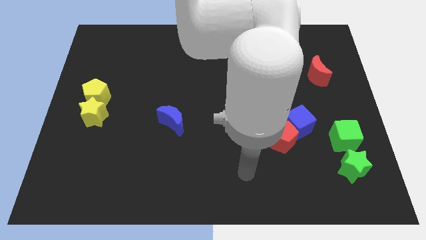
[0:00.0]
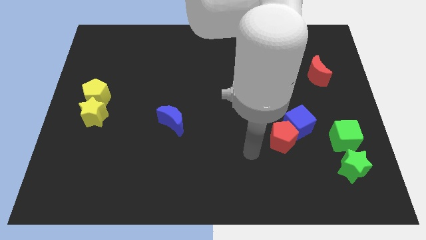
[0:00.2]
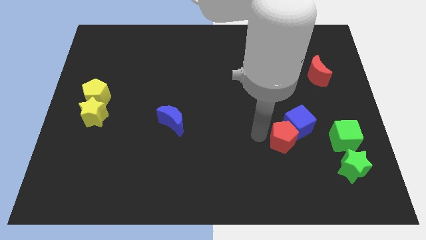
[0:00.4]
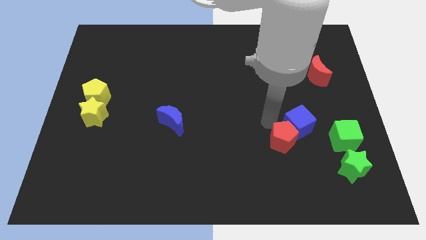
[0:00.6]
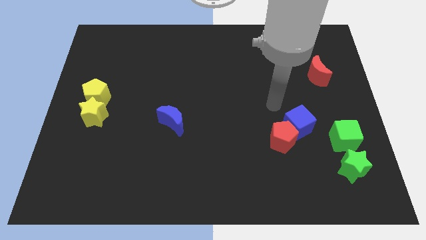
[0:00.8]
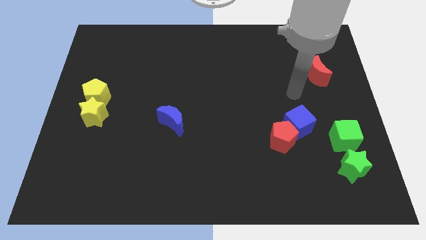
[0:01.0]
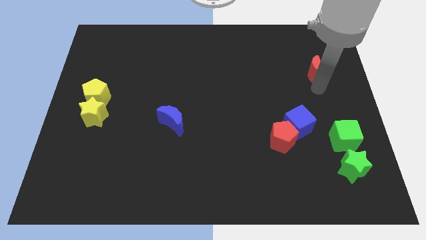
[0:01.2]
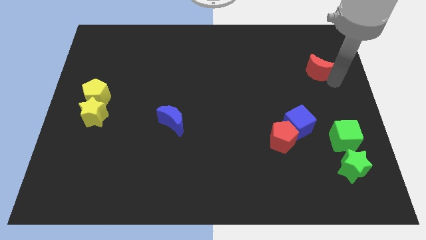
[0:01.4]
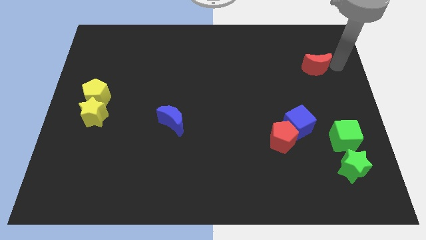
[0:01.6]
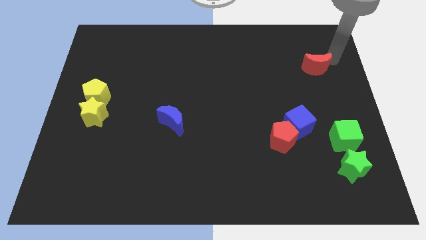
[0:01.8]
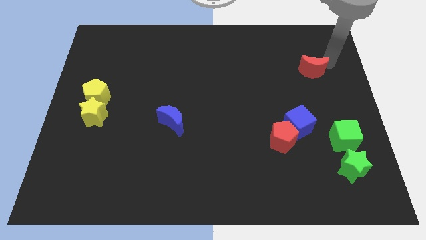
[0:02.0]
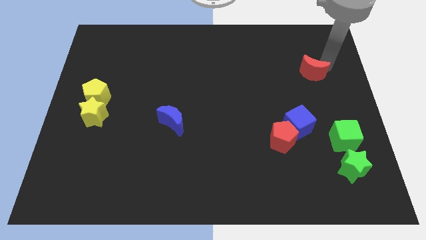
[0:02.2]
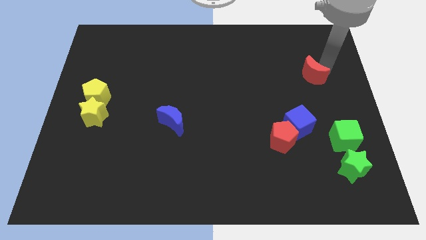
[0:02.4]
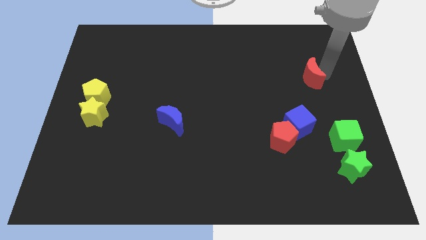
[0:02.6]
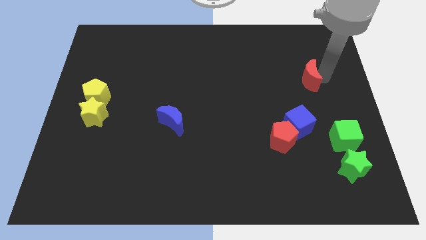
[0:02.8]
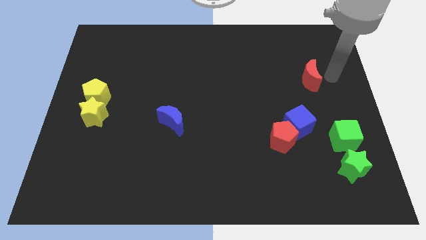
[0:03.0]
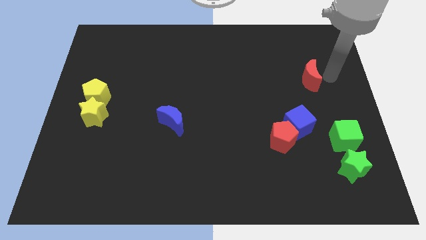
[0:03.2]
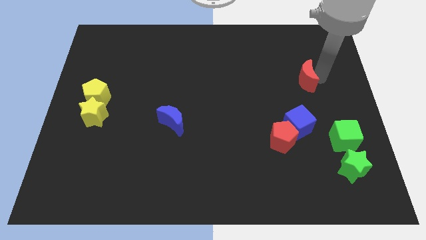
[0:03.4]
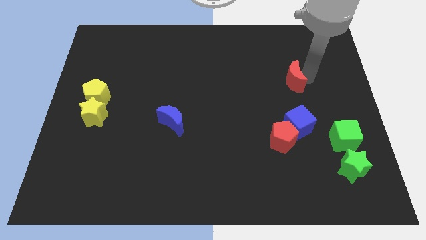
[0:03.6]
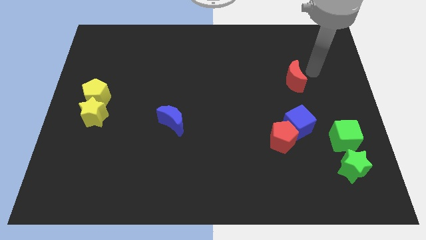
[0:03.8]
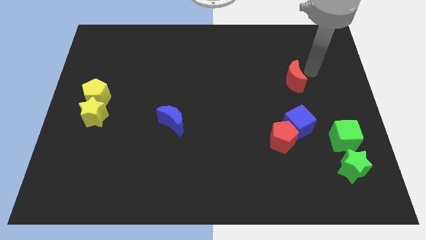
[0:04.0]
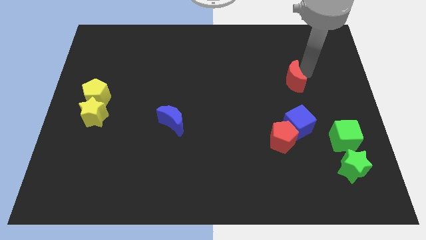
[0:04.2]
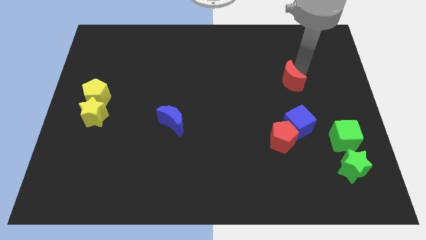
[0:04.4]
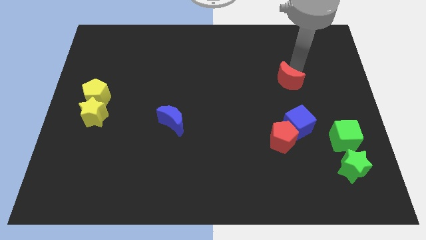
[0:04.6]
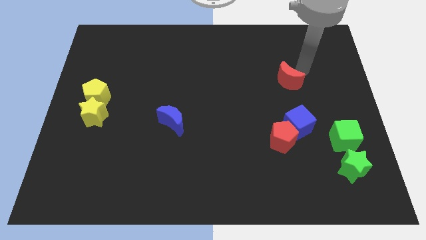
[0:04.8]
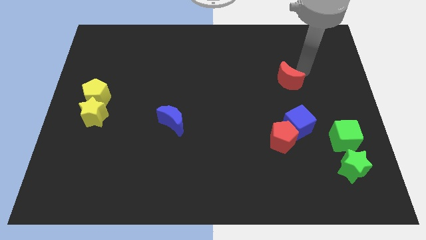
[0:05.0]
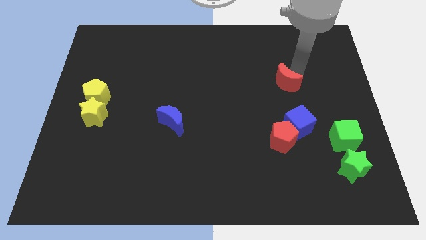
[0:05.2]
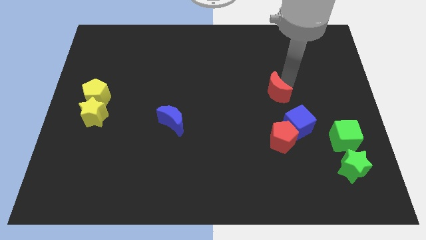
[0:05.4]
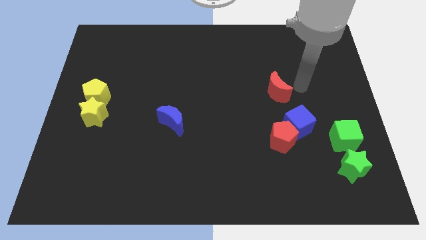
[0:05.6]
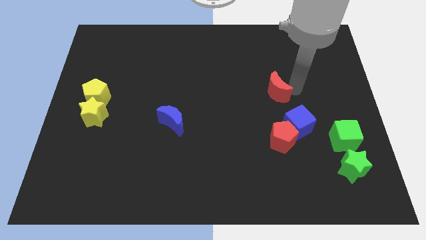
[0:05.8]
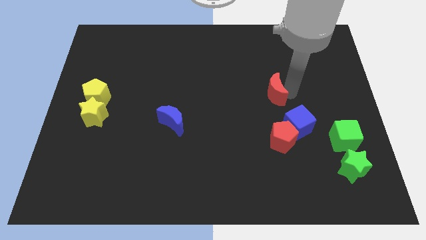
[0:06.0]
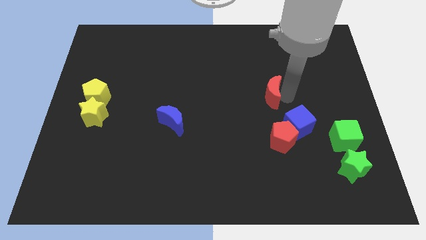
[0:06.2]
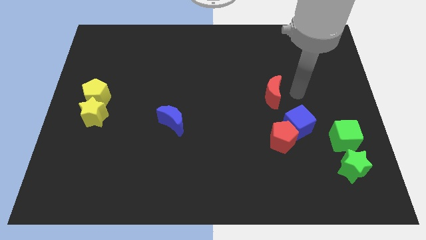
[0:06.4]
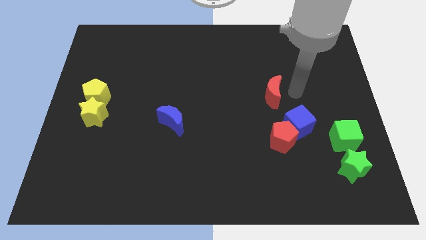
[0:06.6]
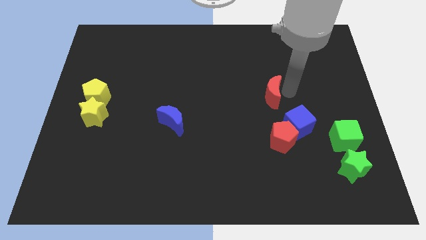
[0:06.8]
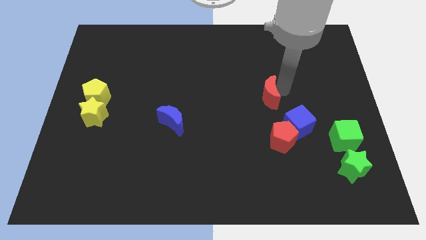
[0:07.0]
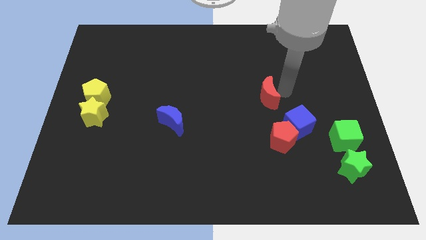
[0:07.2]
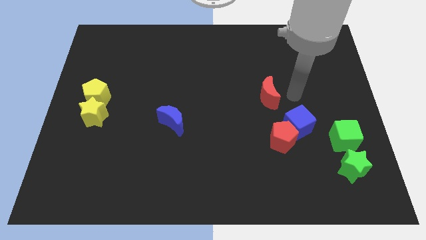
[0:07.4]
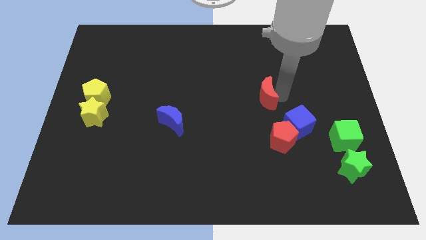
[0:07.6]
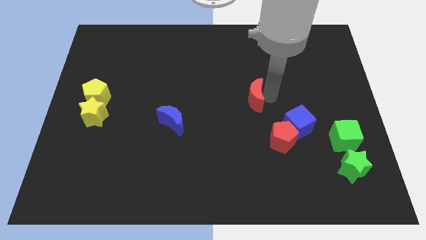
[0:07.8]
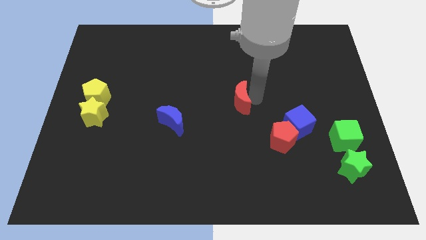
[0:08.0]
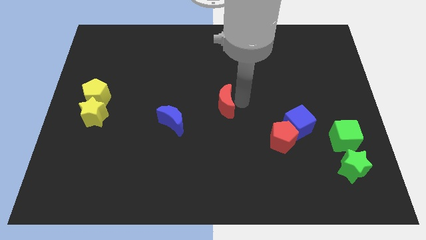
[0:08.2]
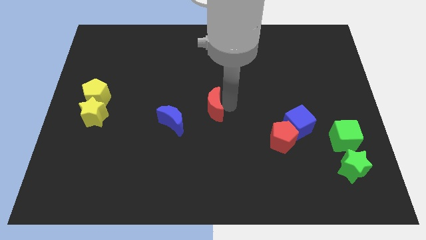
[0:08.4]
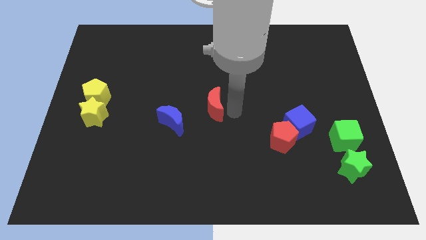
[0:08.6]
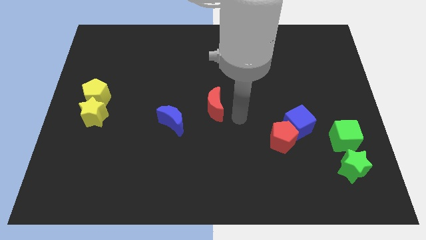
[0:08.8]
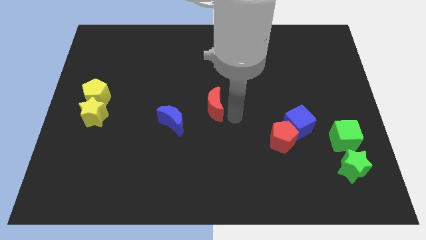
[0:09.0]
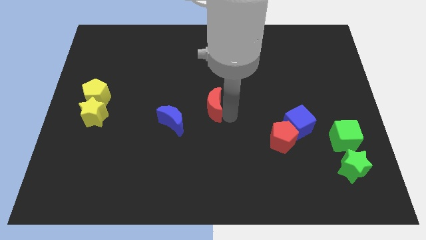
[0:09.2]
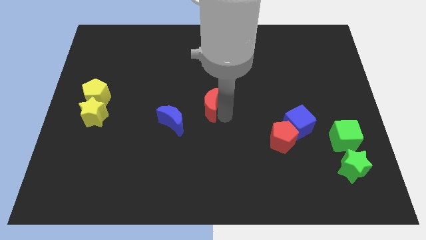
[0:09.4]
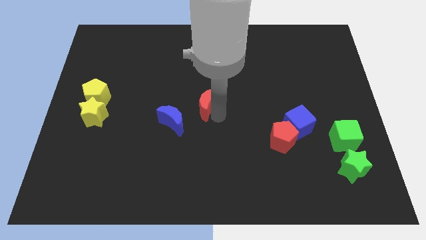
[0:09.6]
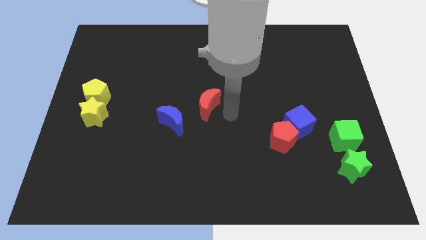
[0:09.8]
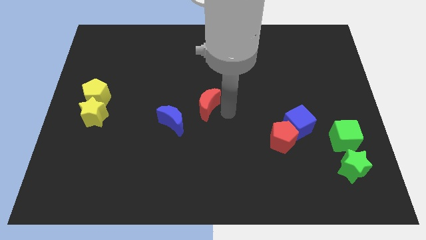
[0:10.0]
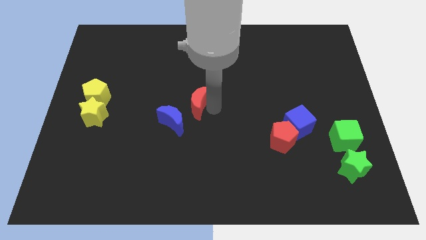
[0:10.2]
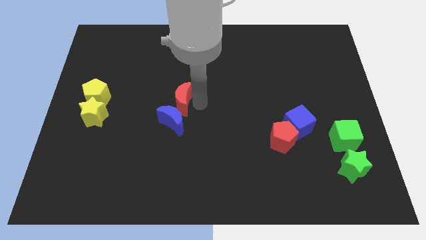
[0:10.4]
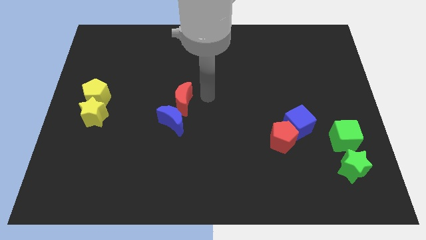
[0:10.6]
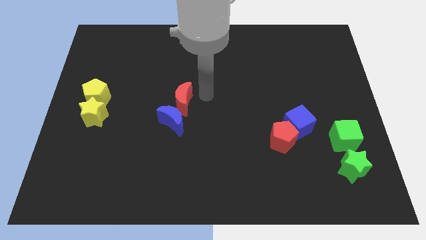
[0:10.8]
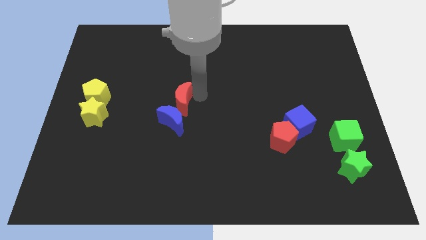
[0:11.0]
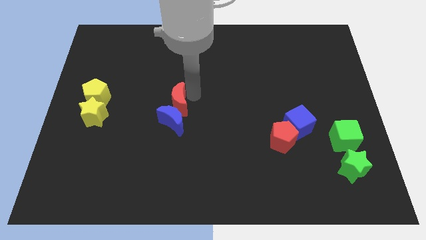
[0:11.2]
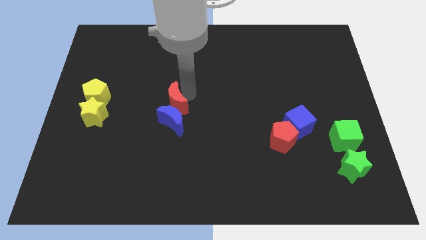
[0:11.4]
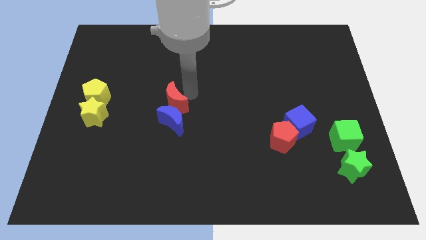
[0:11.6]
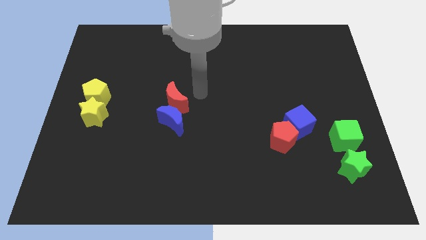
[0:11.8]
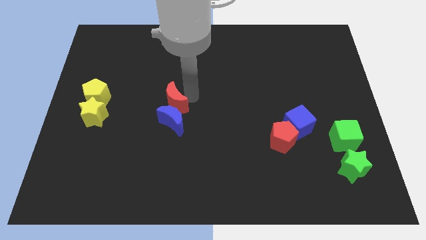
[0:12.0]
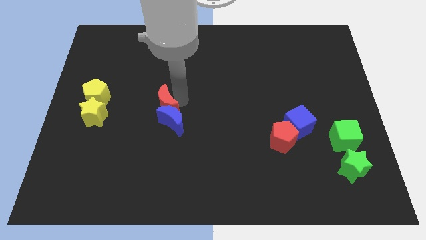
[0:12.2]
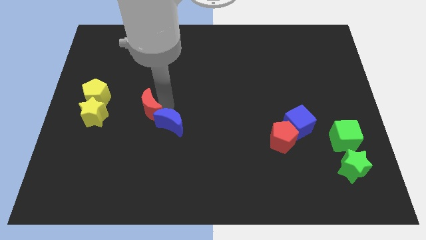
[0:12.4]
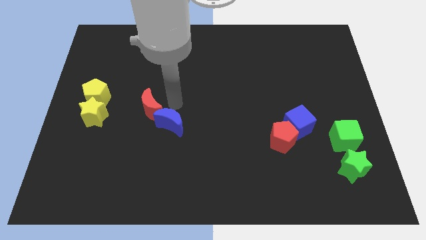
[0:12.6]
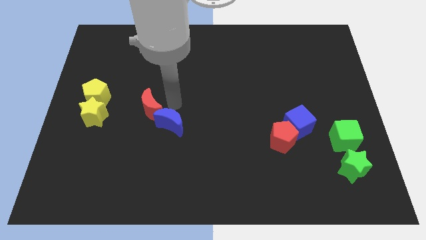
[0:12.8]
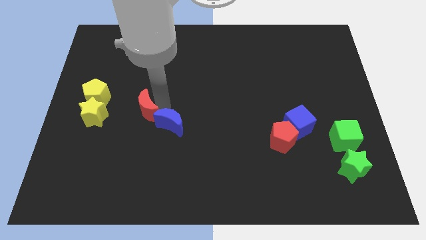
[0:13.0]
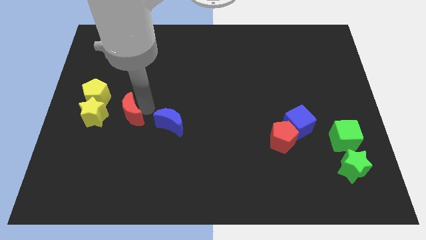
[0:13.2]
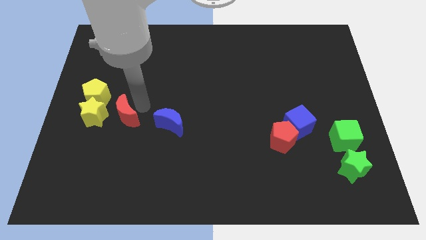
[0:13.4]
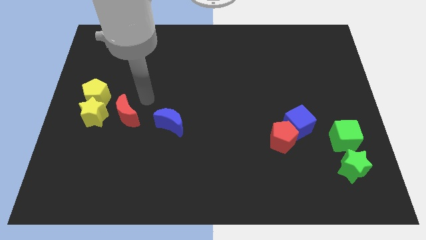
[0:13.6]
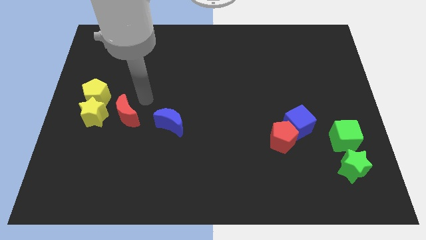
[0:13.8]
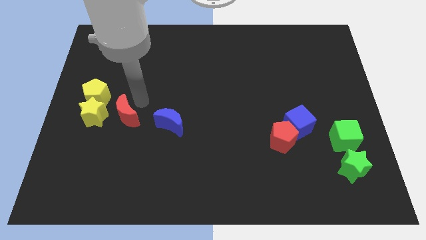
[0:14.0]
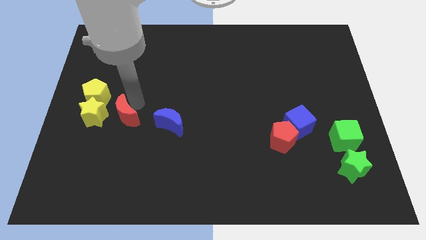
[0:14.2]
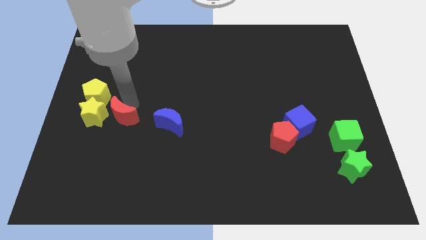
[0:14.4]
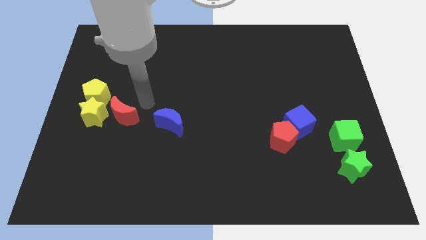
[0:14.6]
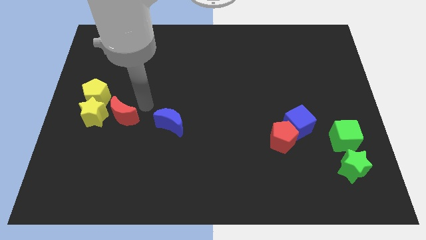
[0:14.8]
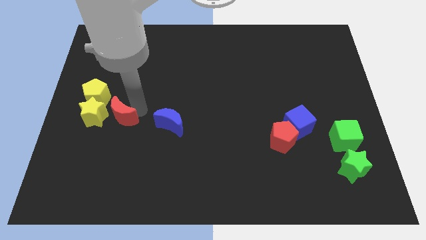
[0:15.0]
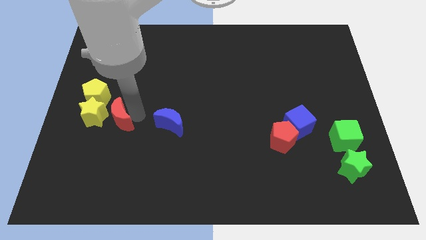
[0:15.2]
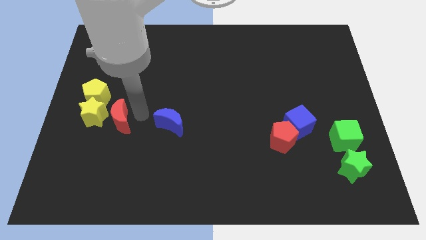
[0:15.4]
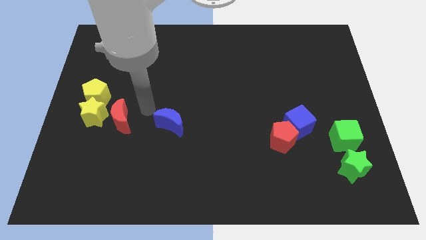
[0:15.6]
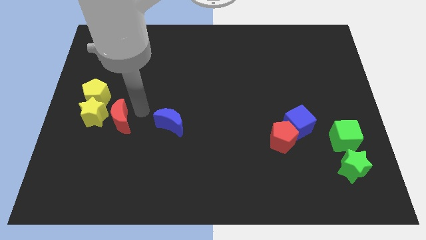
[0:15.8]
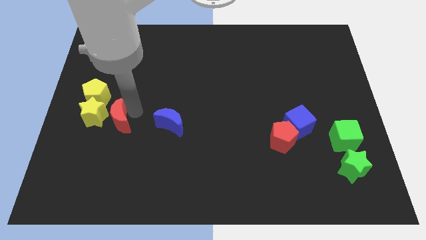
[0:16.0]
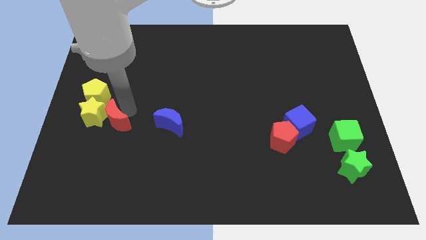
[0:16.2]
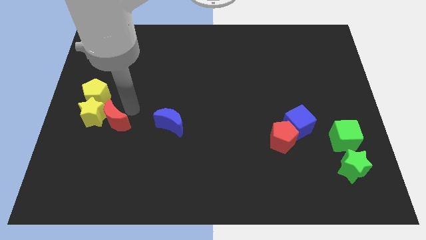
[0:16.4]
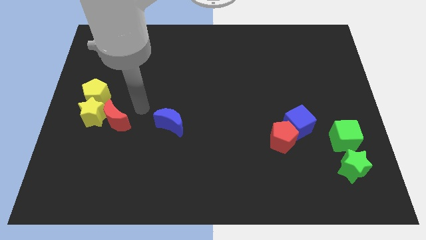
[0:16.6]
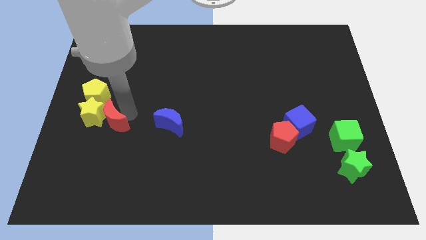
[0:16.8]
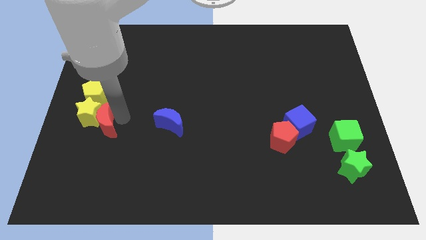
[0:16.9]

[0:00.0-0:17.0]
push the red moon to the bottom side of the yellow pentagon
